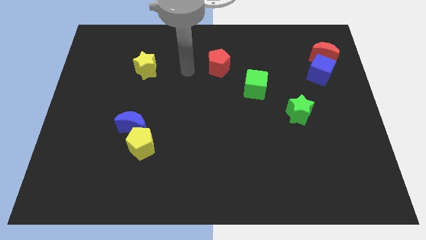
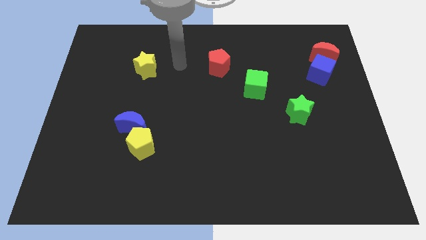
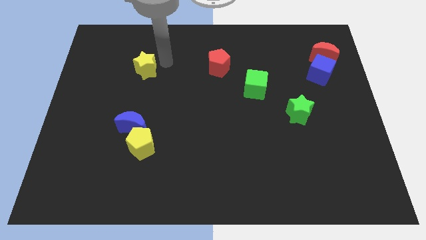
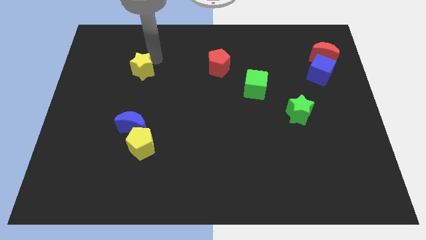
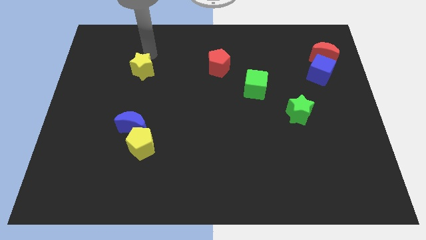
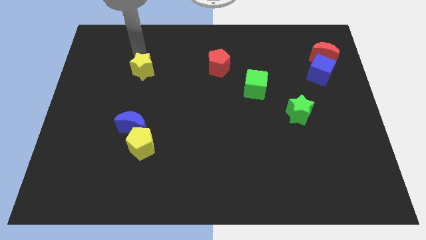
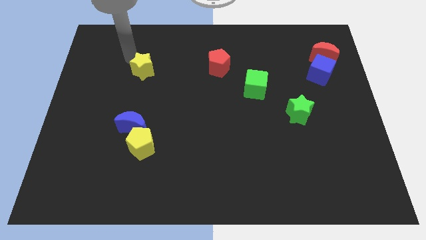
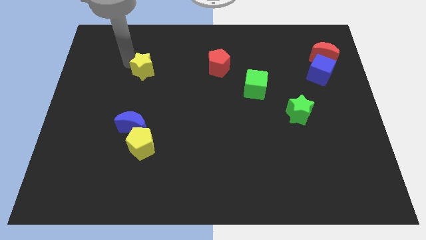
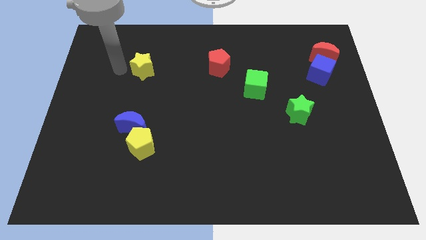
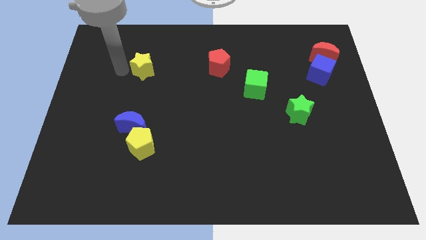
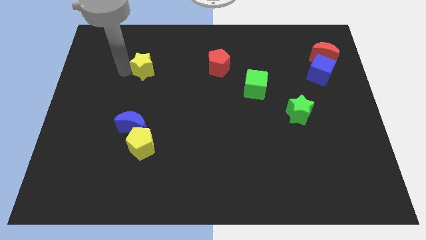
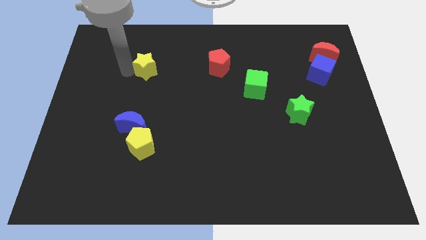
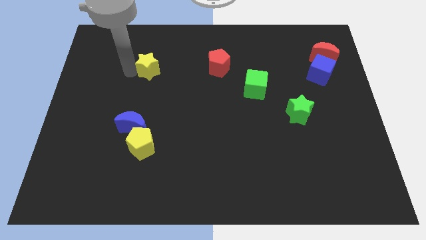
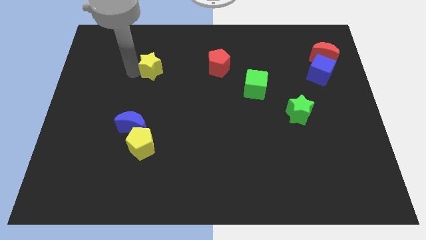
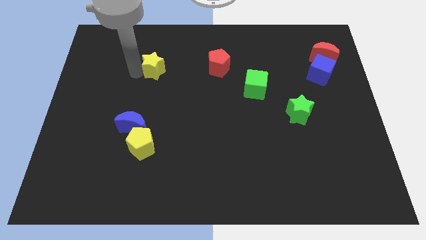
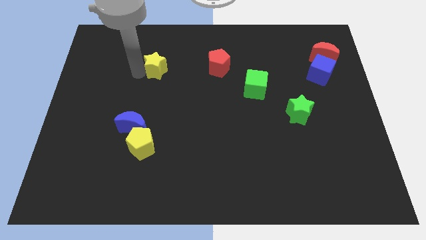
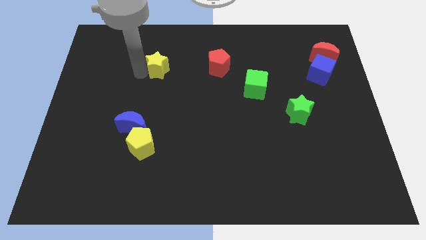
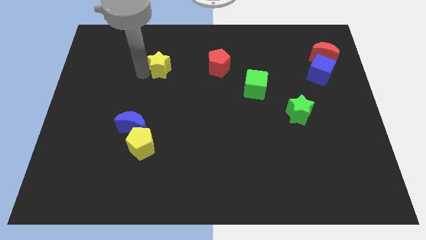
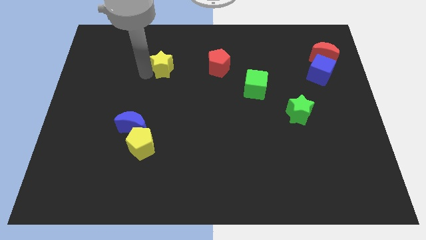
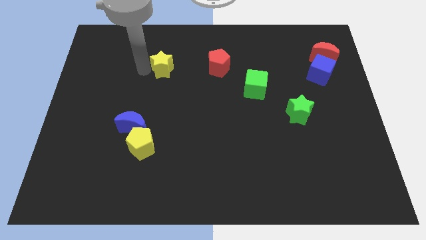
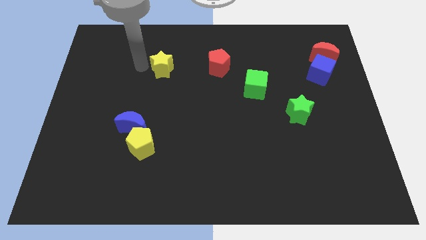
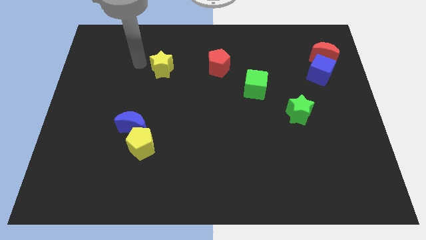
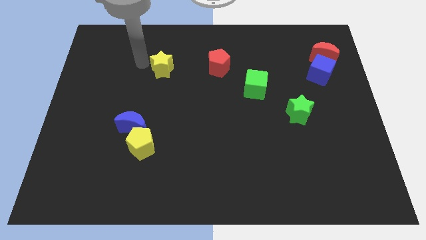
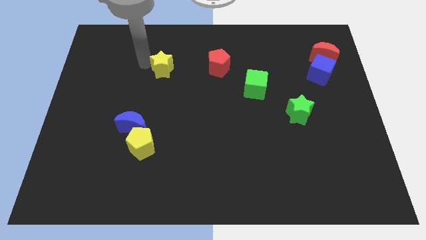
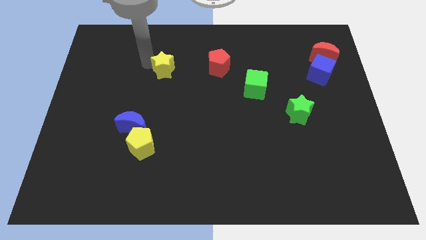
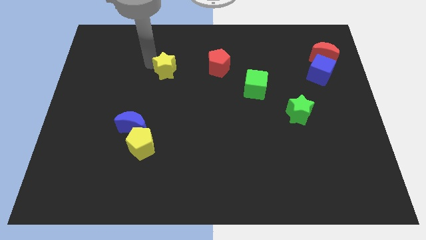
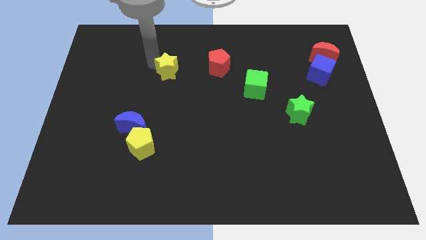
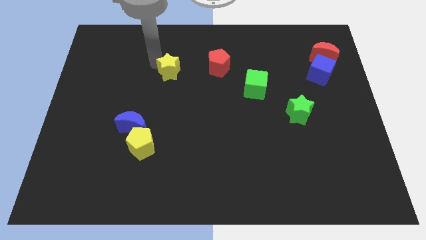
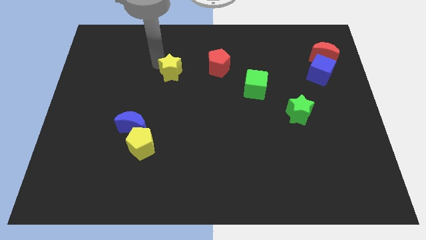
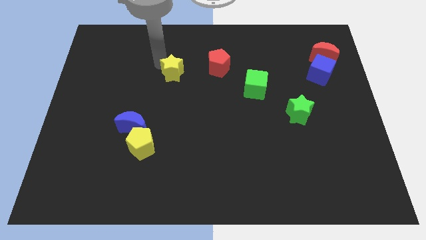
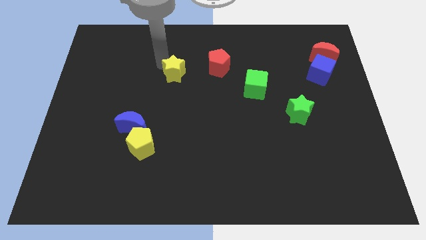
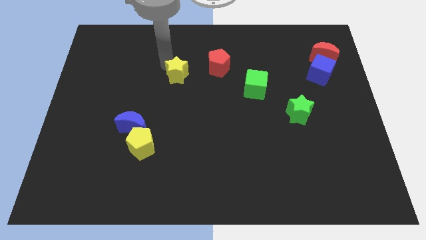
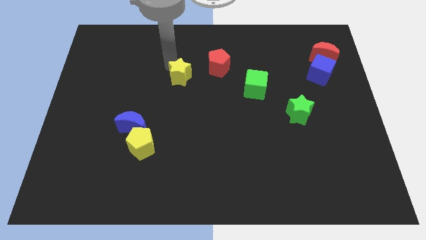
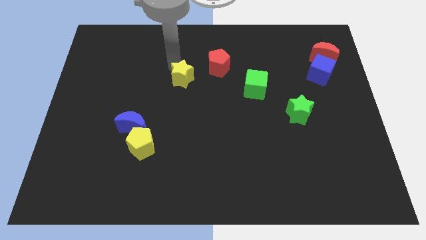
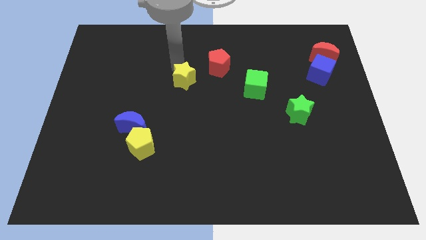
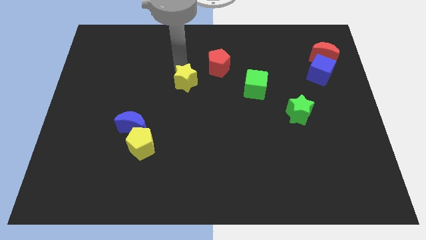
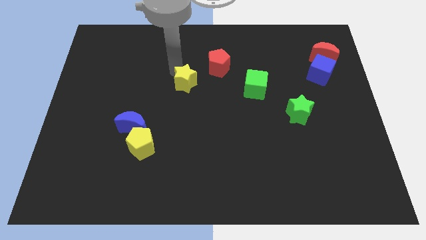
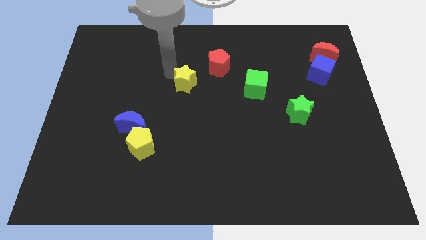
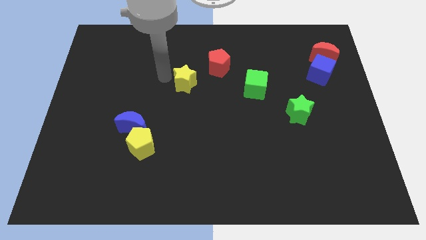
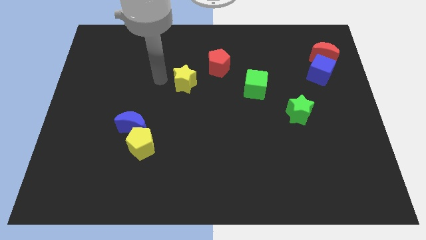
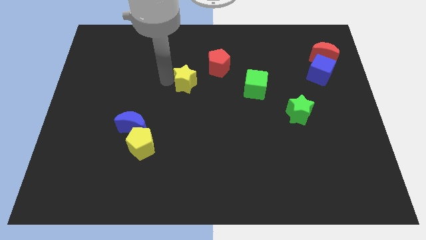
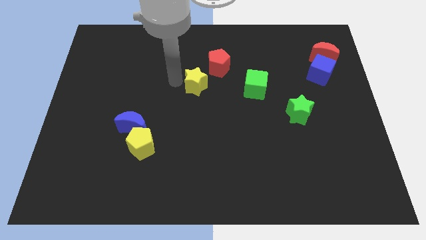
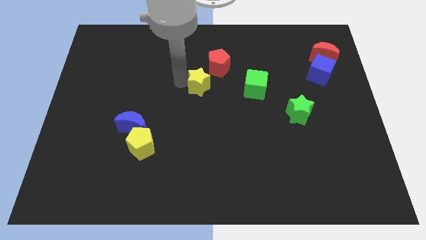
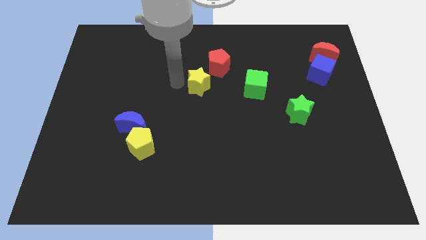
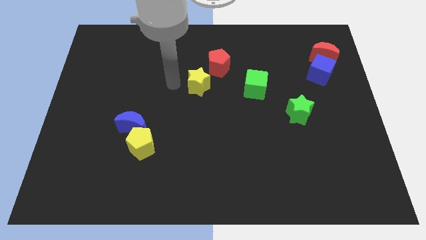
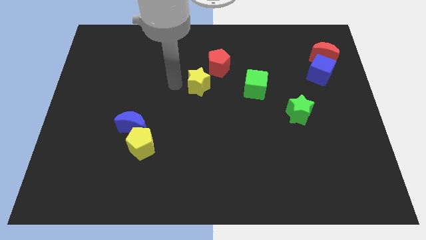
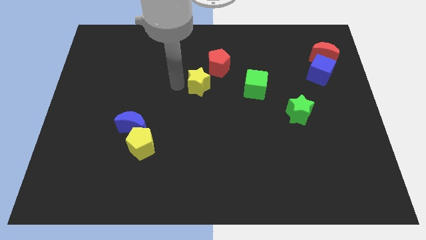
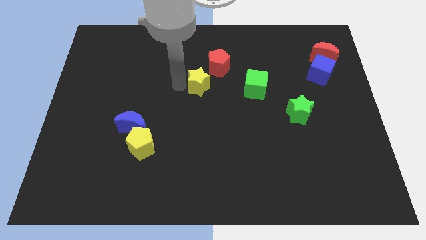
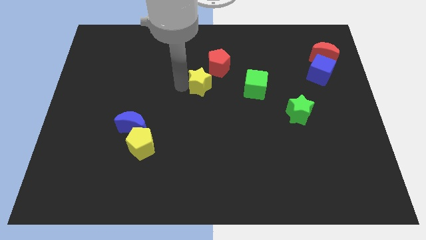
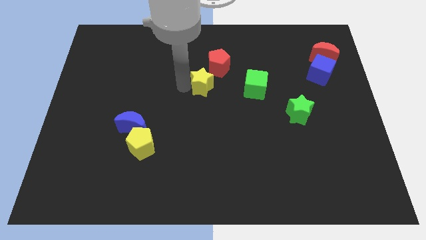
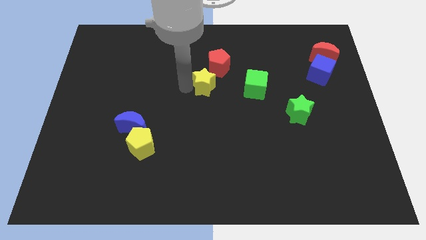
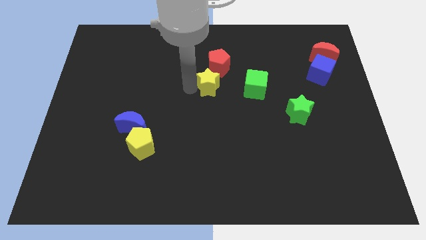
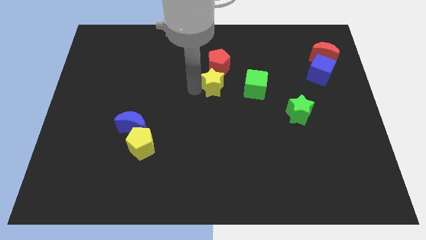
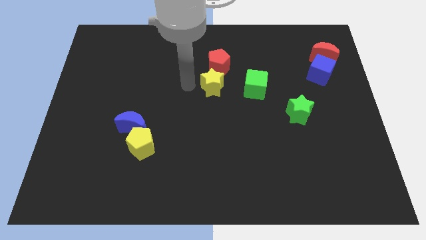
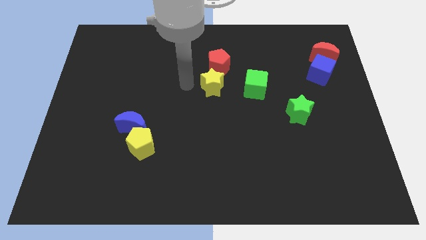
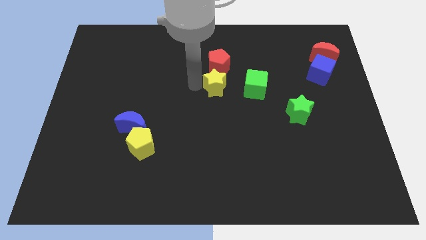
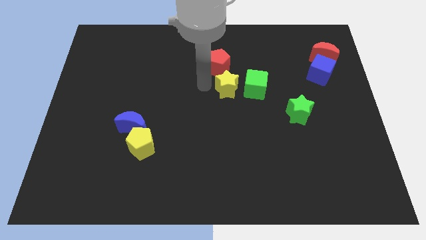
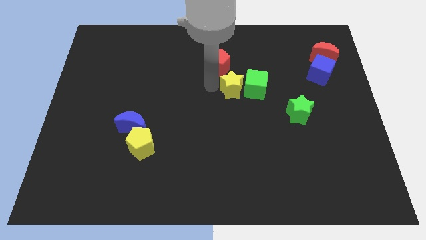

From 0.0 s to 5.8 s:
move the yellow star to the green cube
